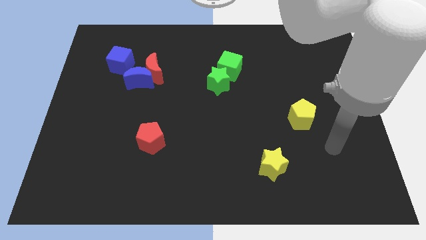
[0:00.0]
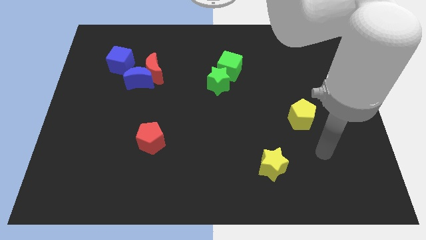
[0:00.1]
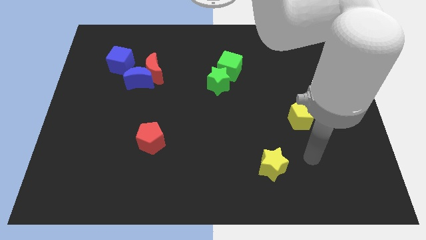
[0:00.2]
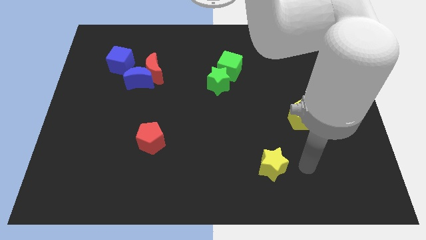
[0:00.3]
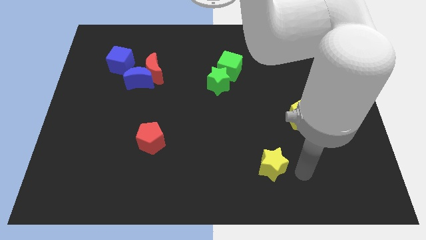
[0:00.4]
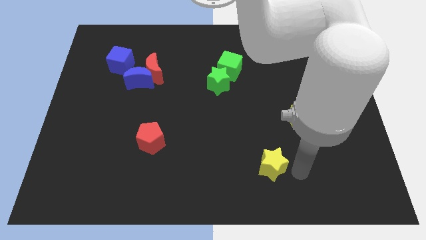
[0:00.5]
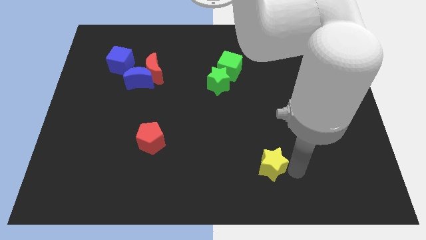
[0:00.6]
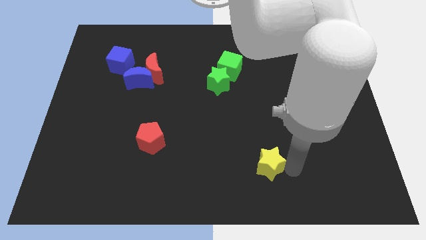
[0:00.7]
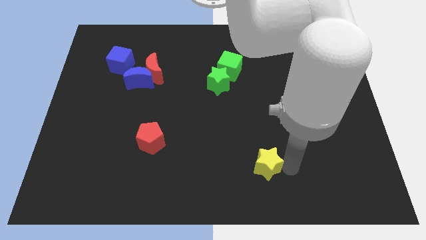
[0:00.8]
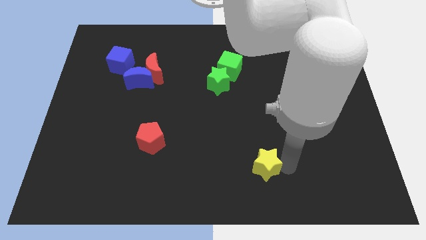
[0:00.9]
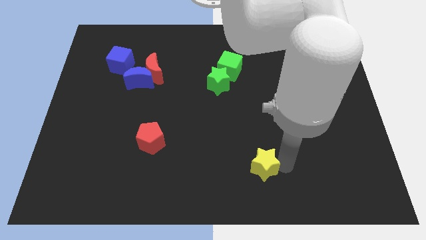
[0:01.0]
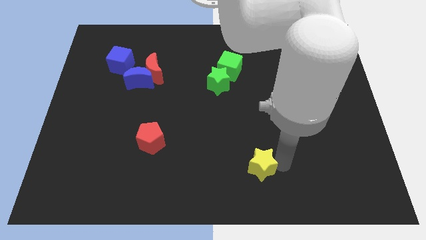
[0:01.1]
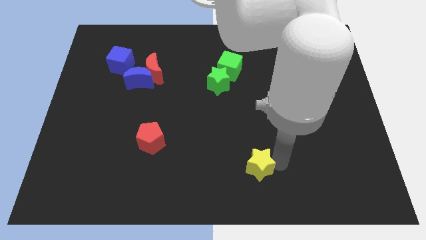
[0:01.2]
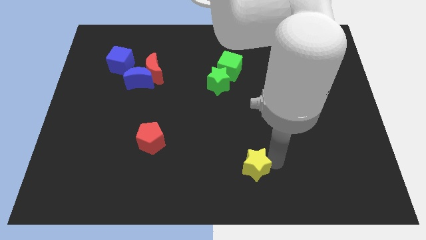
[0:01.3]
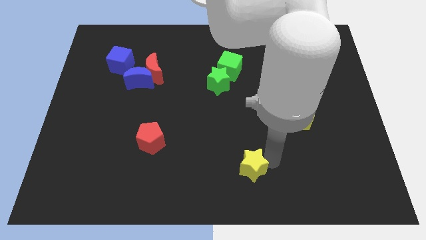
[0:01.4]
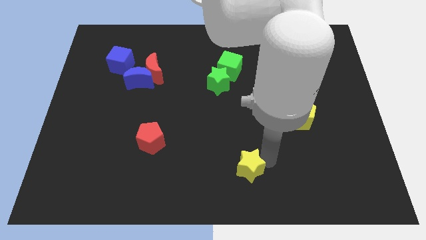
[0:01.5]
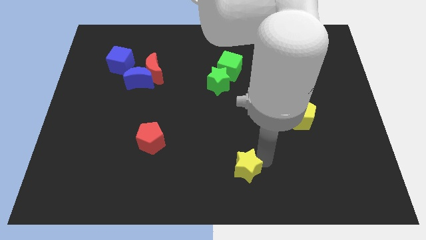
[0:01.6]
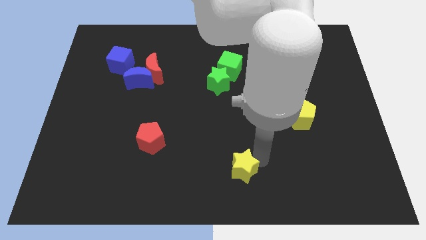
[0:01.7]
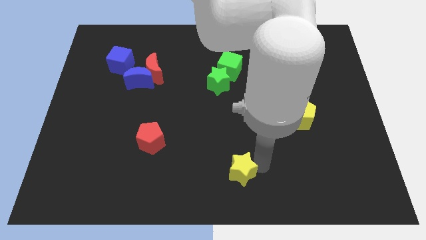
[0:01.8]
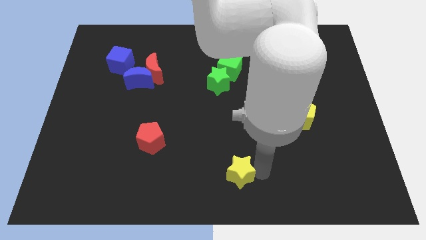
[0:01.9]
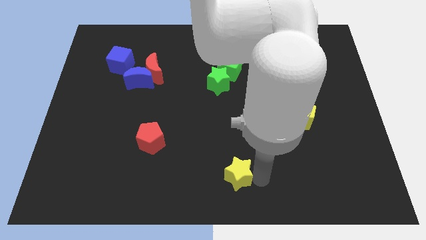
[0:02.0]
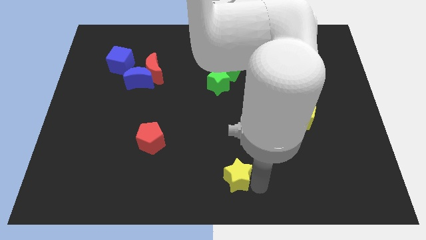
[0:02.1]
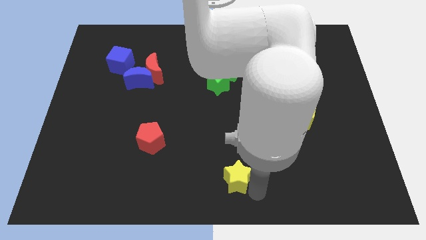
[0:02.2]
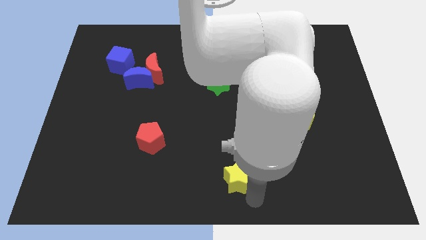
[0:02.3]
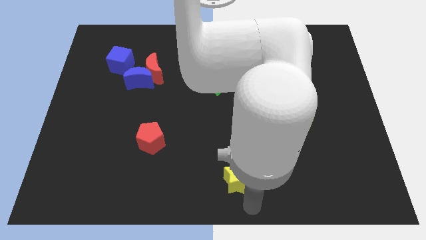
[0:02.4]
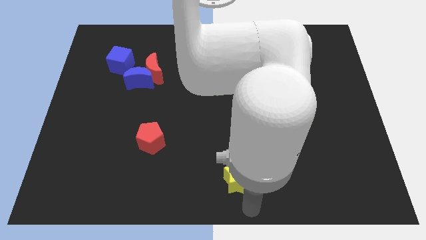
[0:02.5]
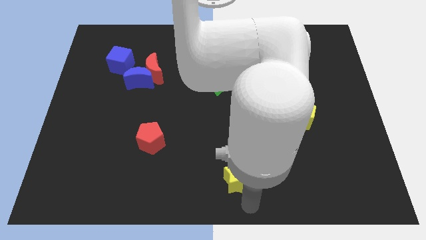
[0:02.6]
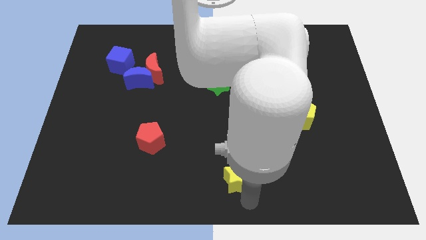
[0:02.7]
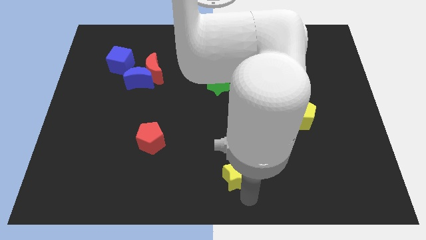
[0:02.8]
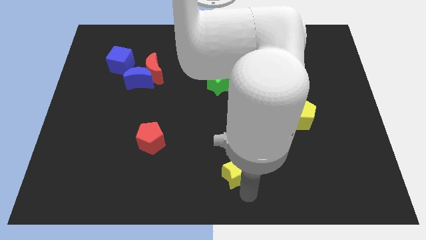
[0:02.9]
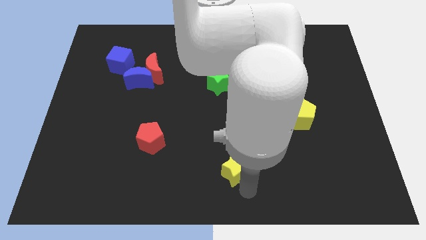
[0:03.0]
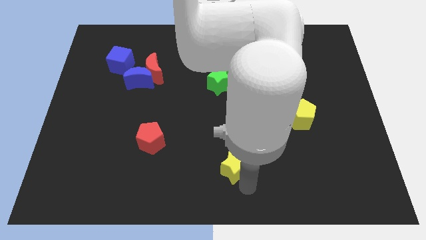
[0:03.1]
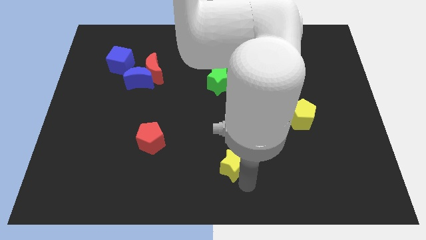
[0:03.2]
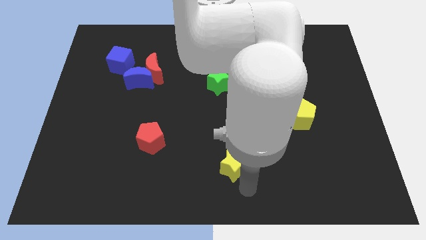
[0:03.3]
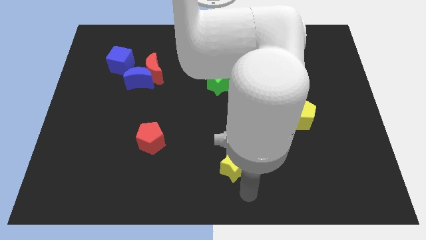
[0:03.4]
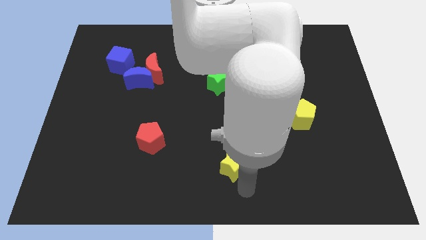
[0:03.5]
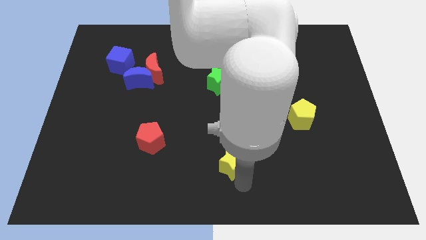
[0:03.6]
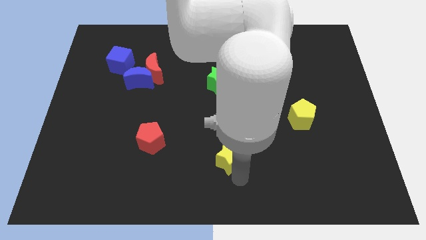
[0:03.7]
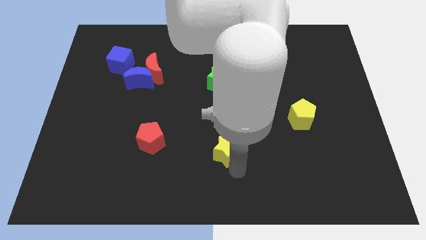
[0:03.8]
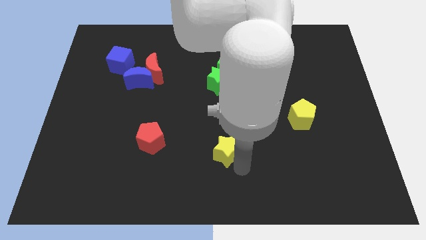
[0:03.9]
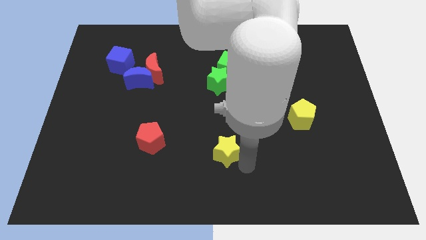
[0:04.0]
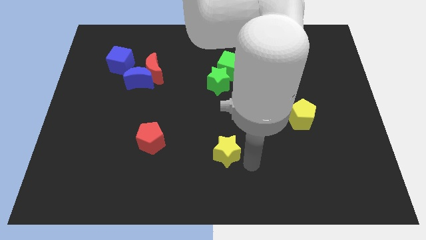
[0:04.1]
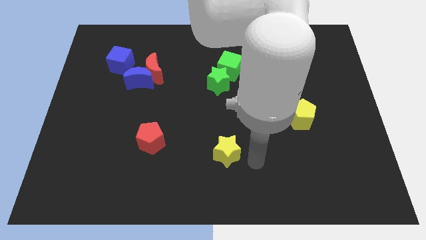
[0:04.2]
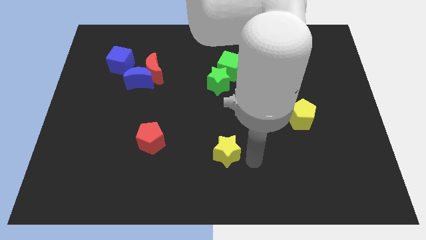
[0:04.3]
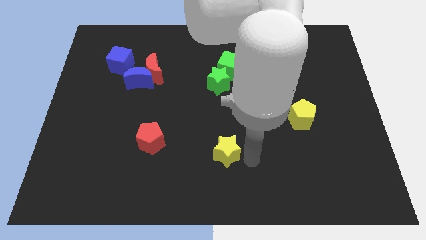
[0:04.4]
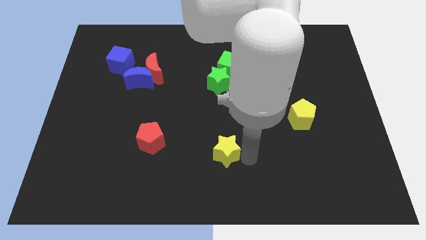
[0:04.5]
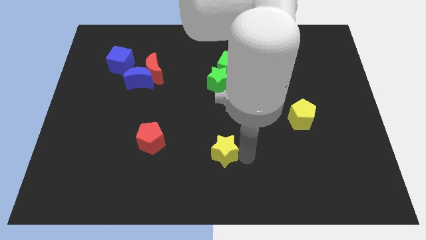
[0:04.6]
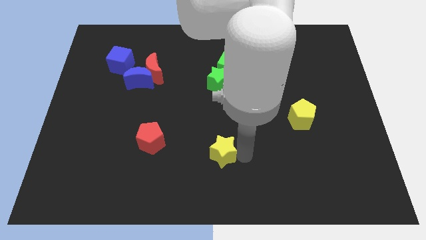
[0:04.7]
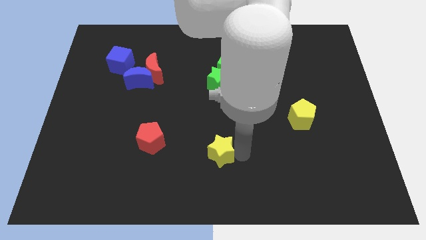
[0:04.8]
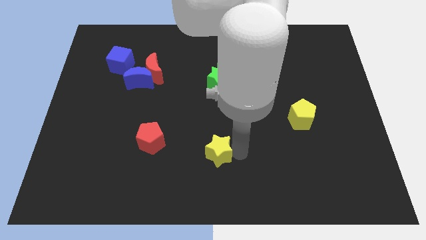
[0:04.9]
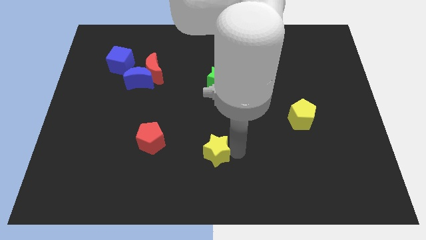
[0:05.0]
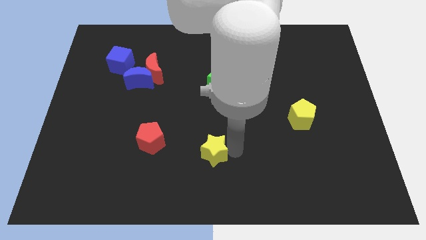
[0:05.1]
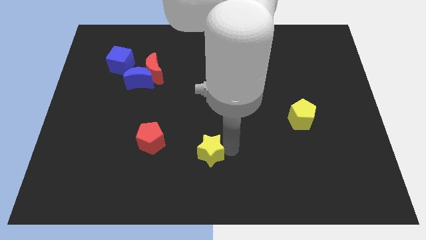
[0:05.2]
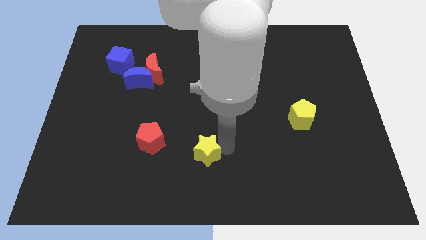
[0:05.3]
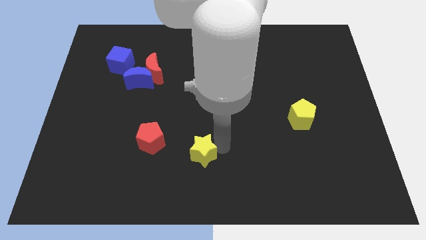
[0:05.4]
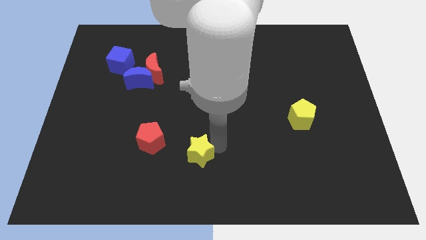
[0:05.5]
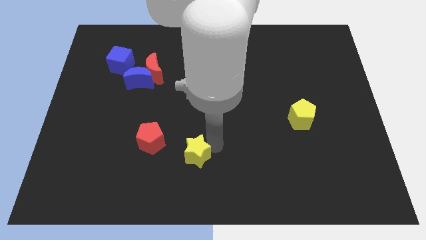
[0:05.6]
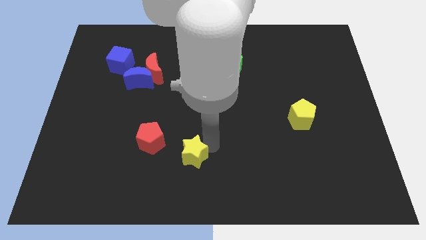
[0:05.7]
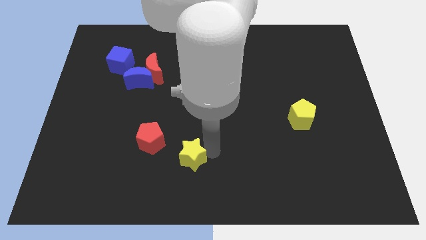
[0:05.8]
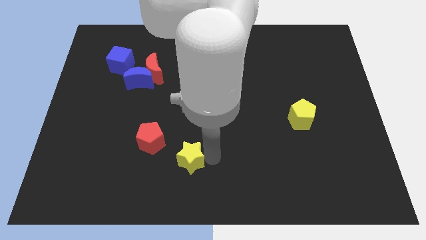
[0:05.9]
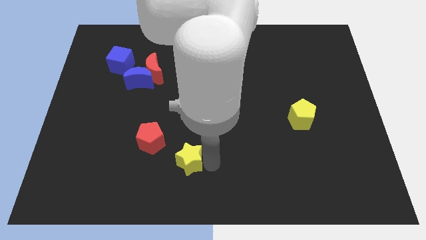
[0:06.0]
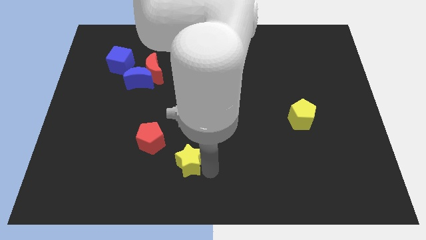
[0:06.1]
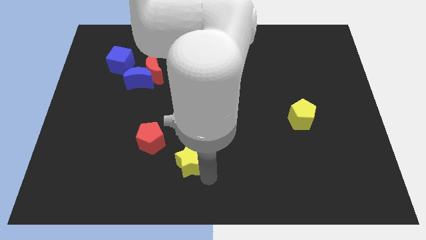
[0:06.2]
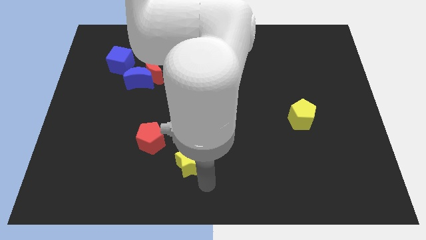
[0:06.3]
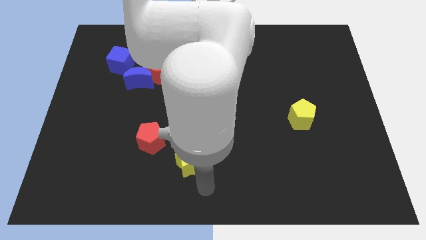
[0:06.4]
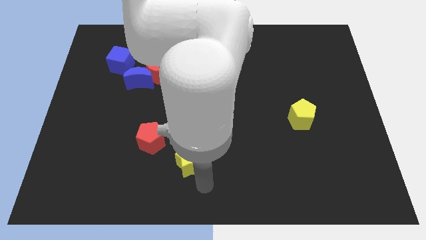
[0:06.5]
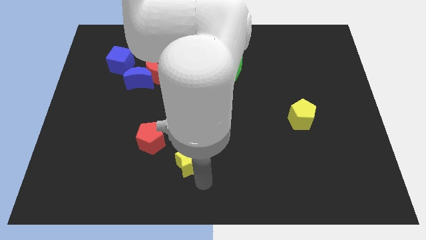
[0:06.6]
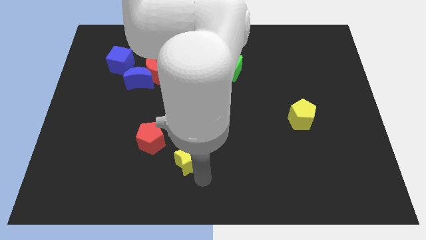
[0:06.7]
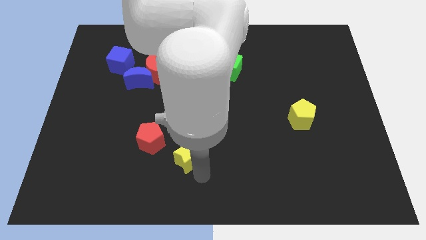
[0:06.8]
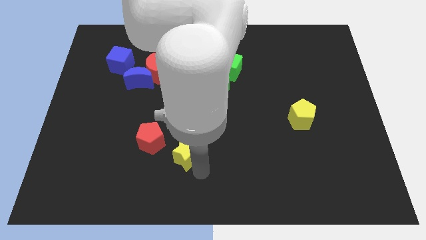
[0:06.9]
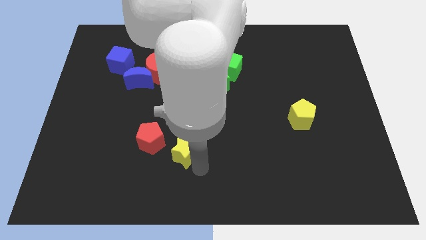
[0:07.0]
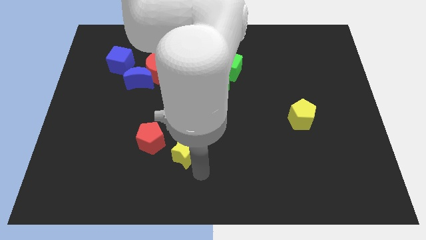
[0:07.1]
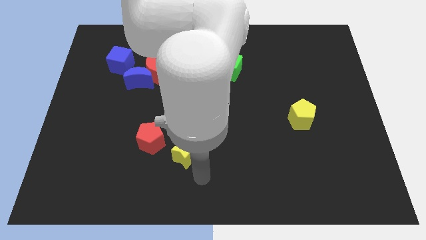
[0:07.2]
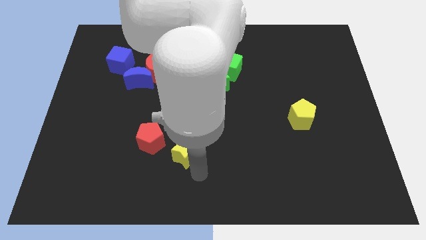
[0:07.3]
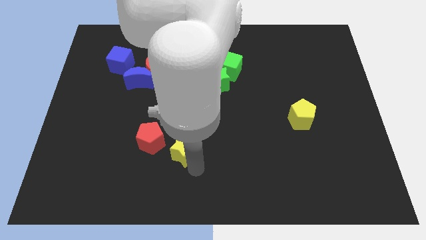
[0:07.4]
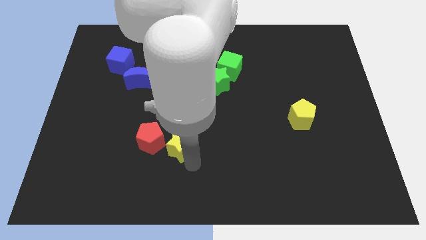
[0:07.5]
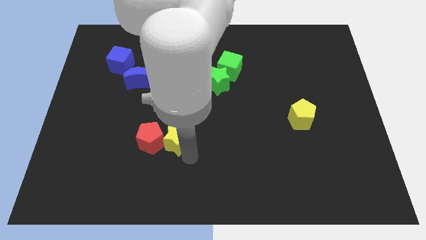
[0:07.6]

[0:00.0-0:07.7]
push the yellow star next to the red pentagon
